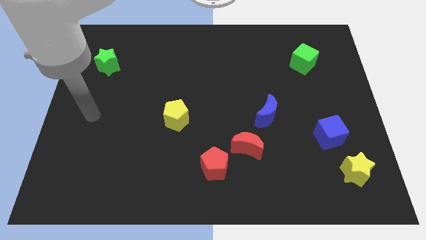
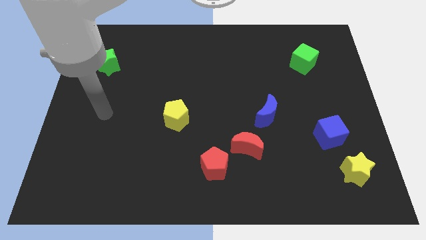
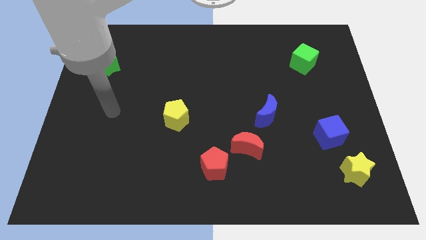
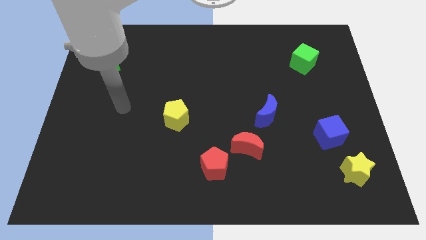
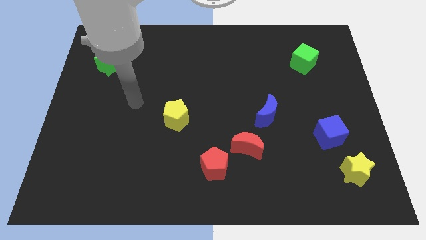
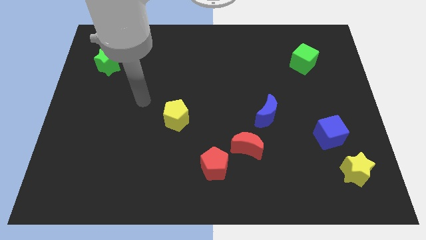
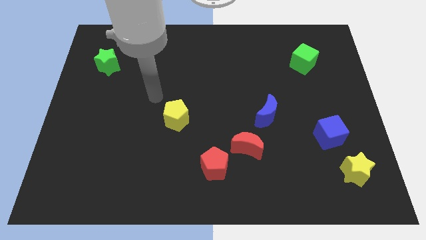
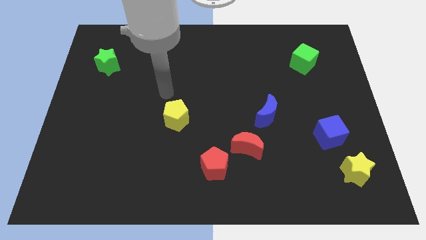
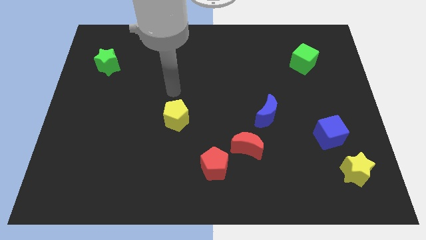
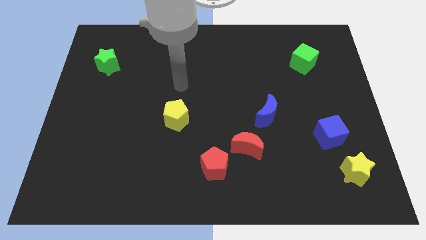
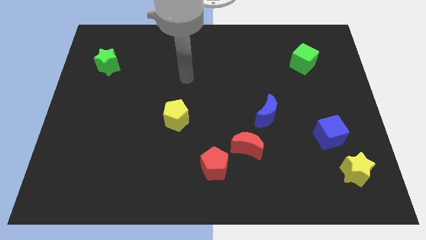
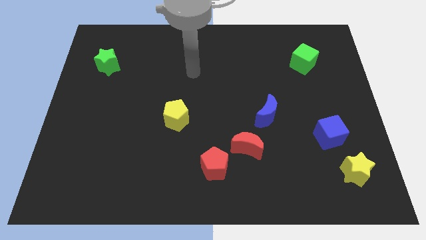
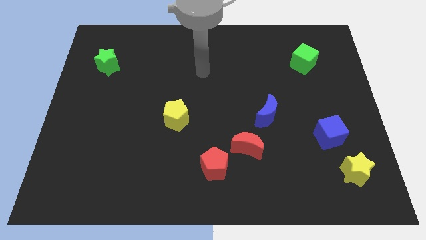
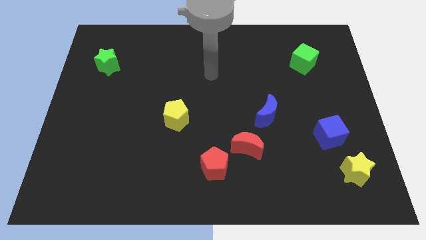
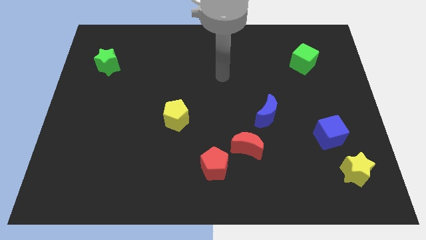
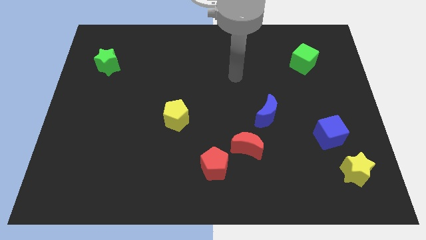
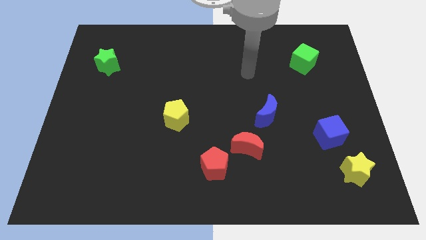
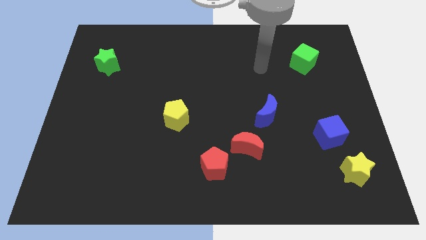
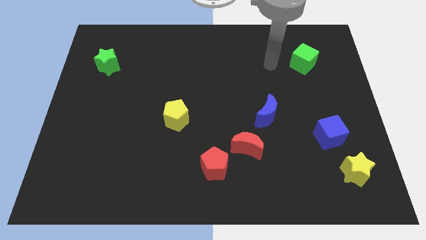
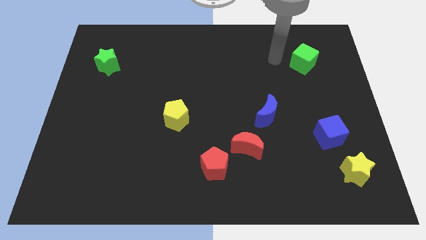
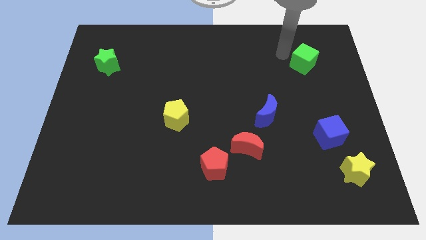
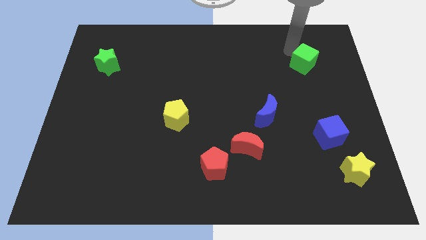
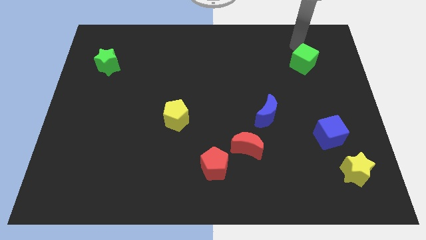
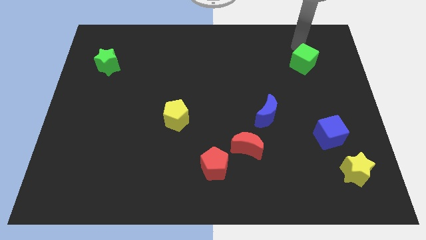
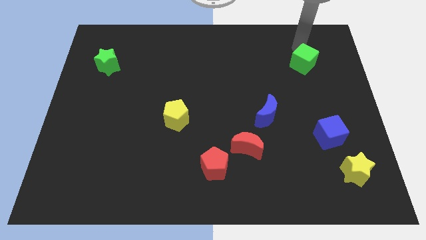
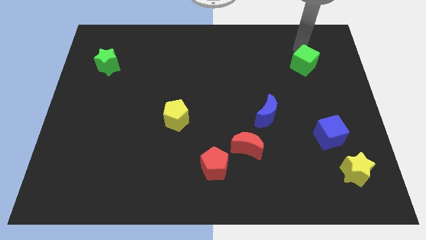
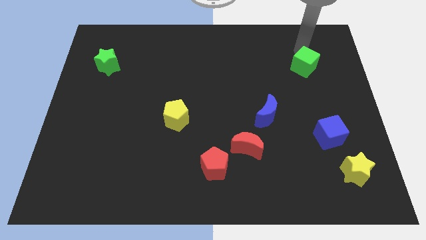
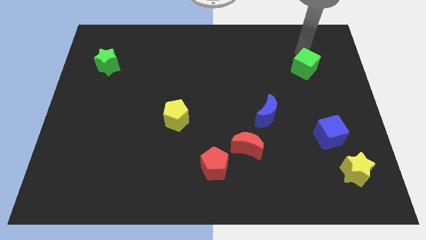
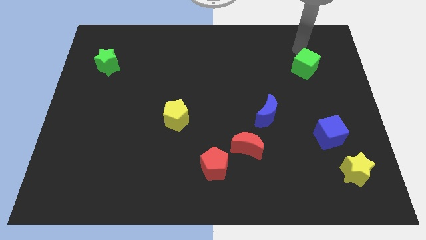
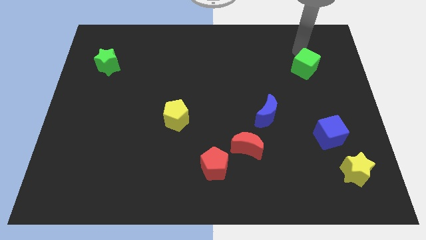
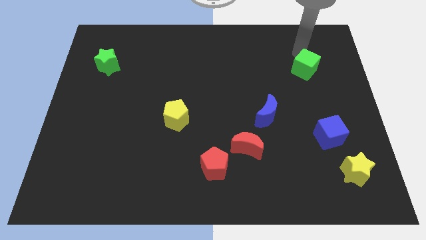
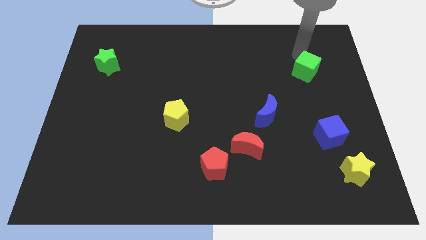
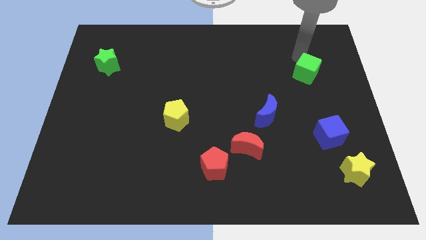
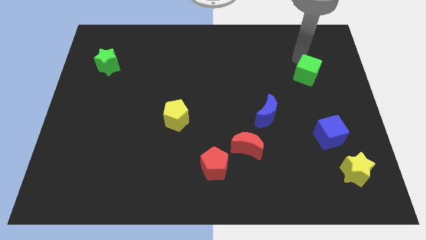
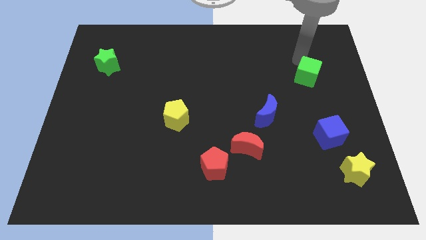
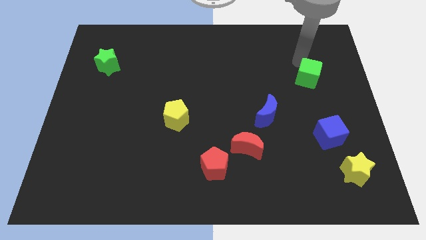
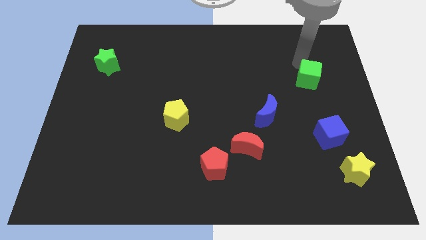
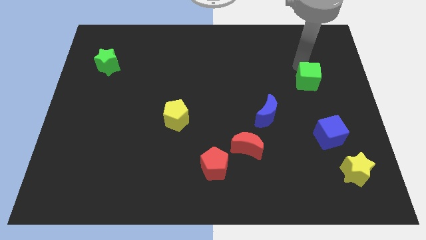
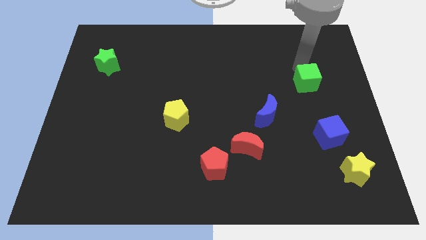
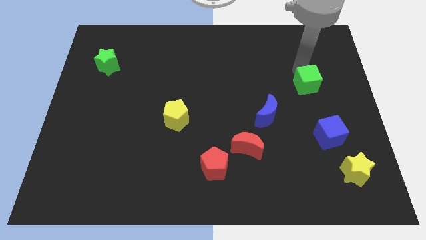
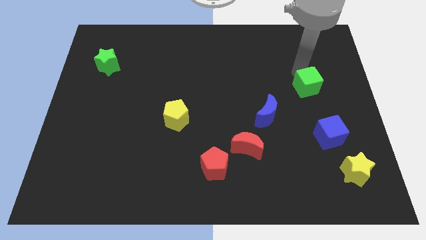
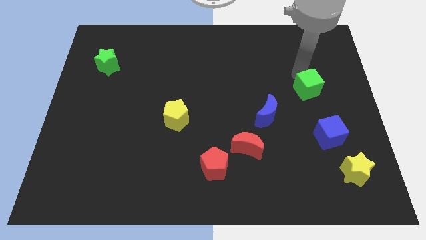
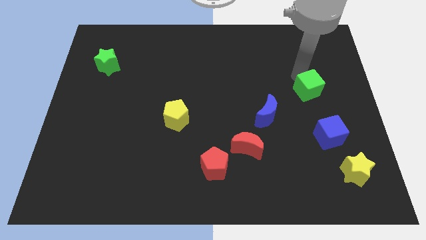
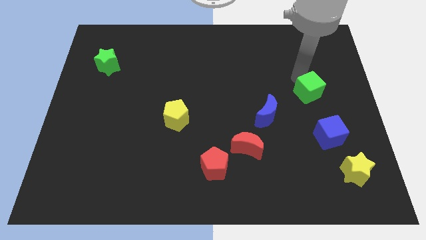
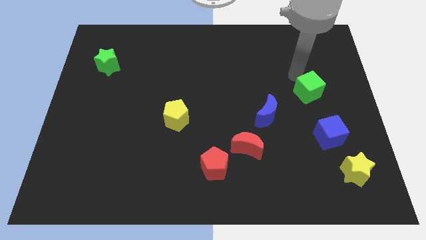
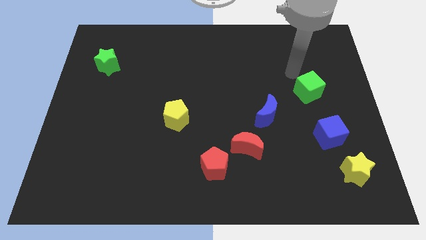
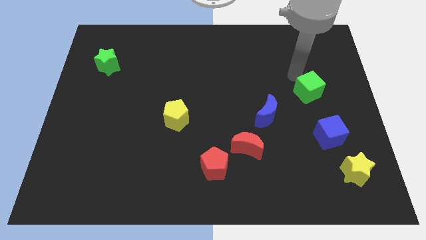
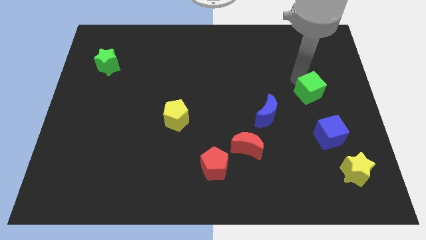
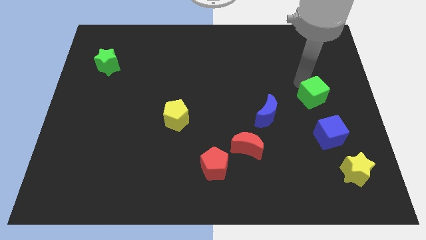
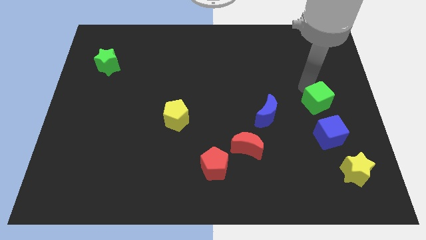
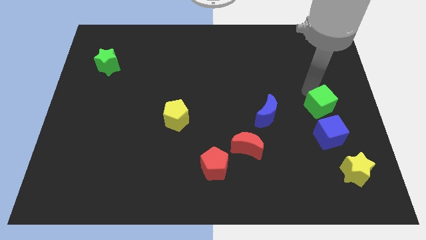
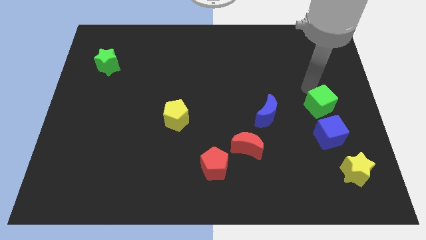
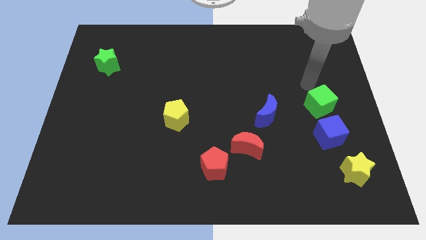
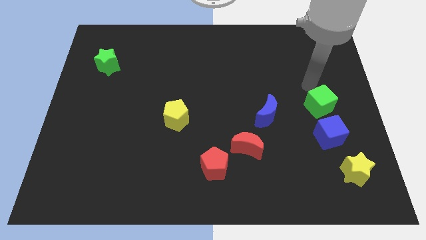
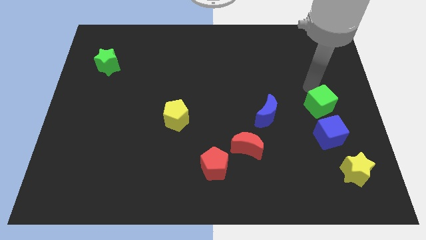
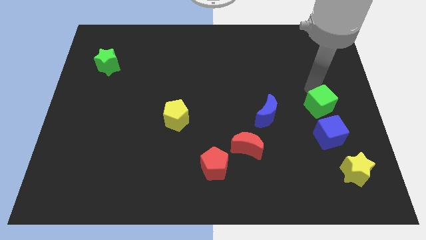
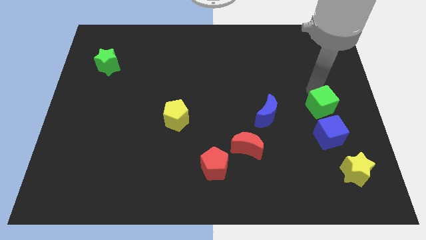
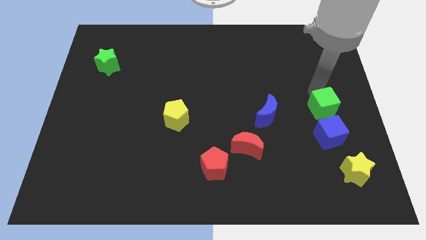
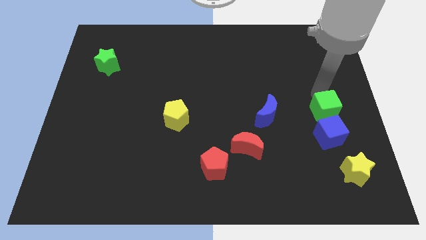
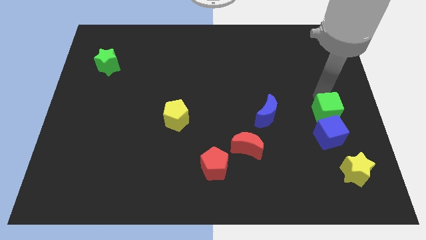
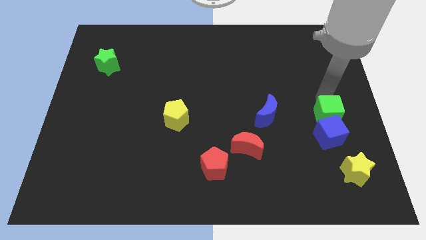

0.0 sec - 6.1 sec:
slide the green cube towards the blue cube

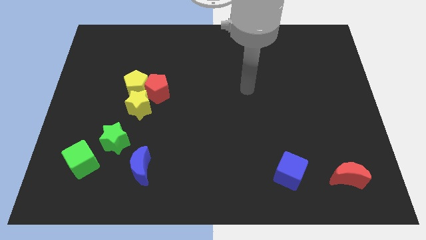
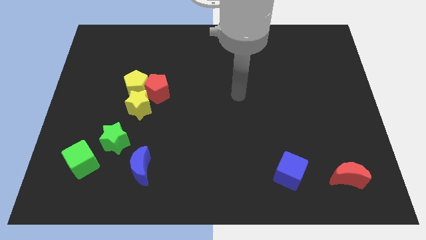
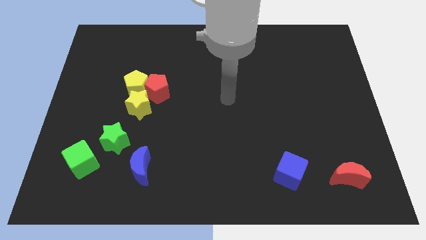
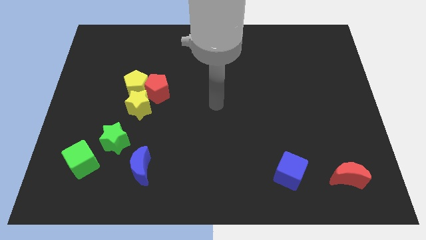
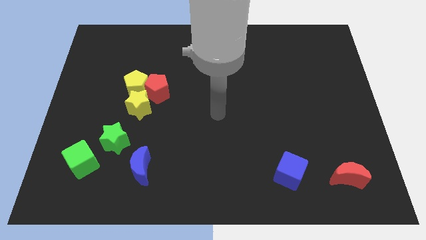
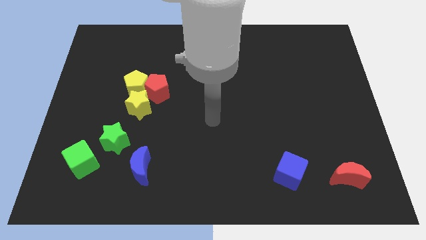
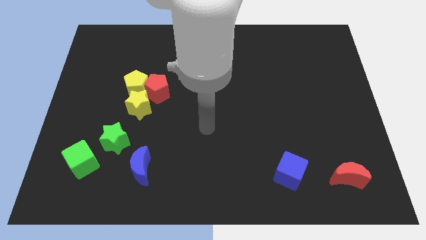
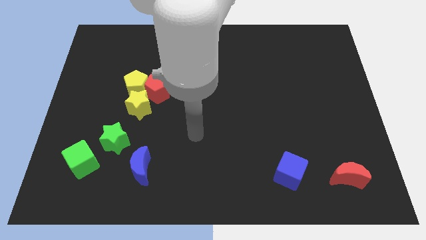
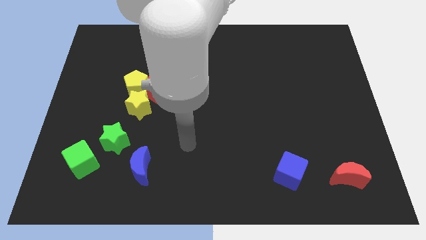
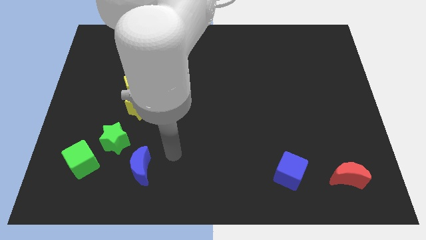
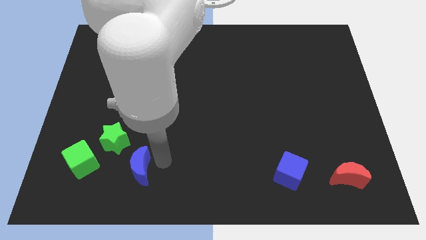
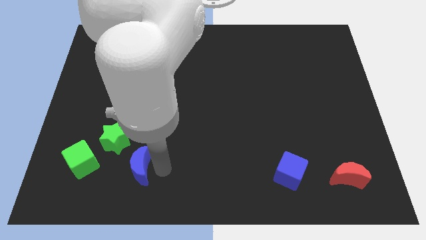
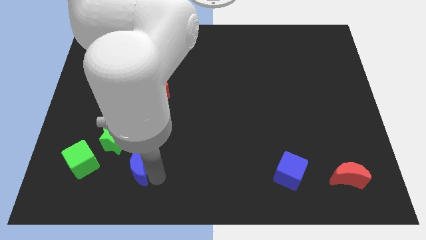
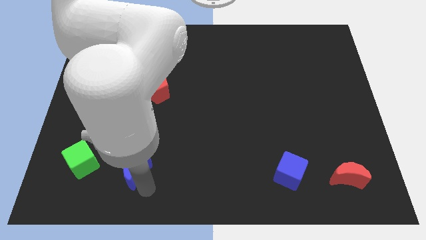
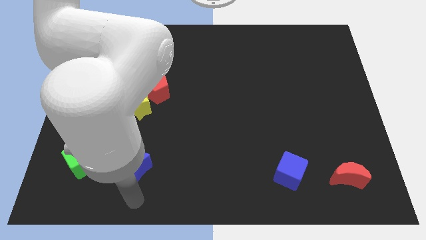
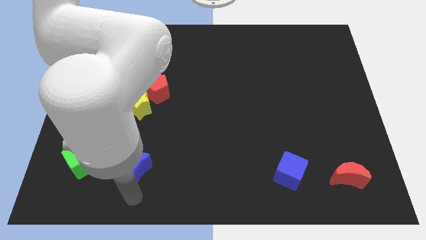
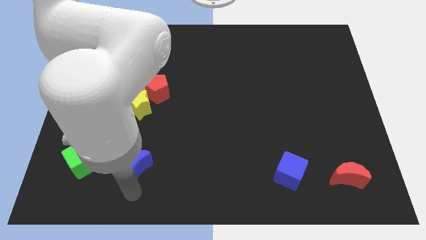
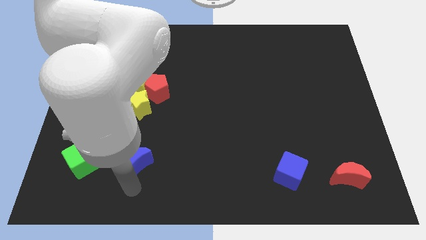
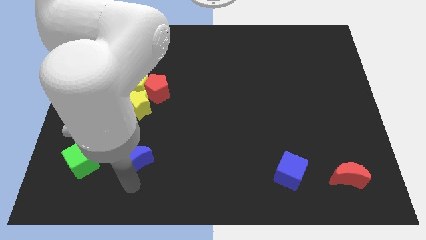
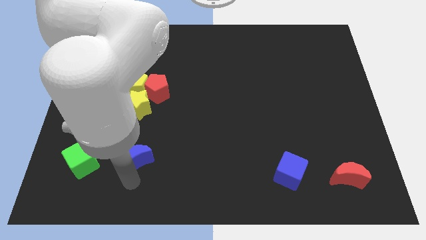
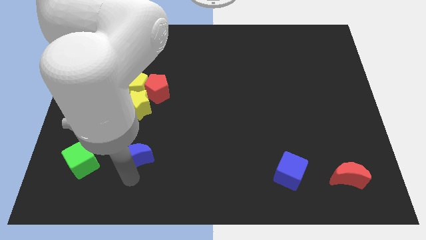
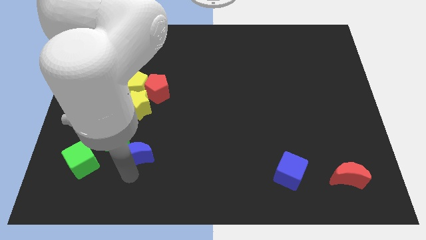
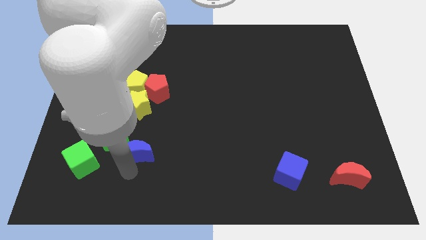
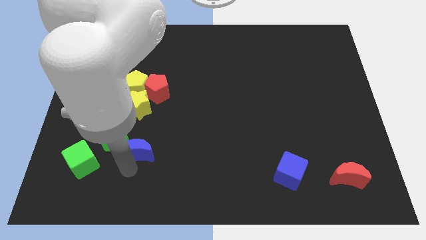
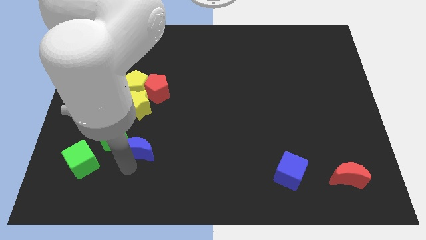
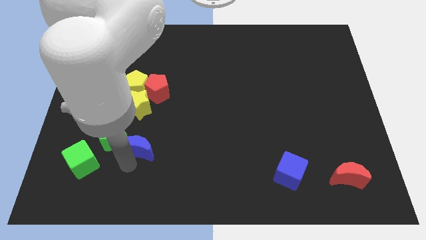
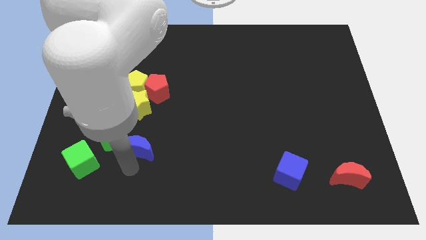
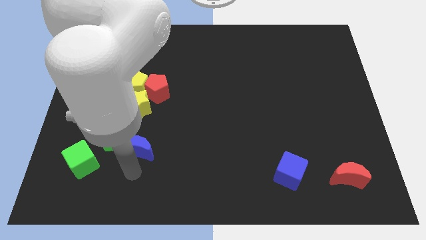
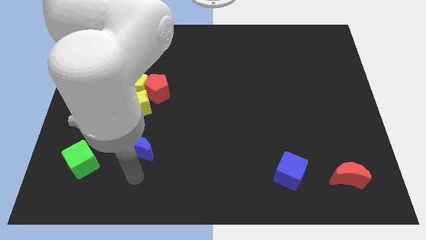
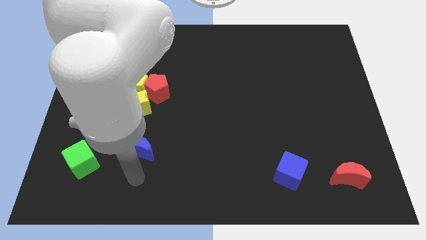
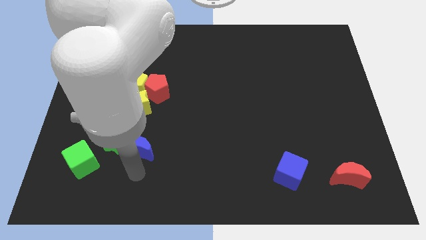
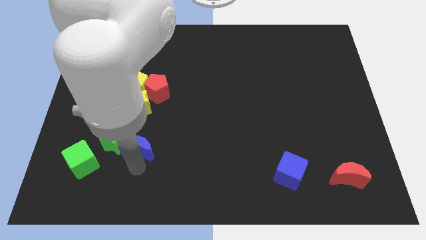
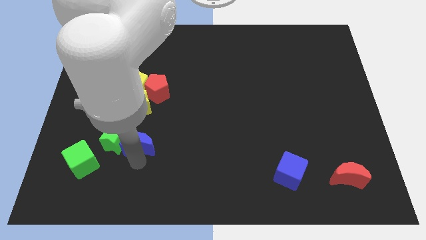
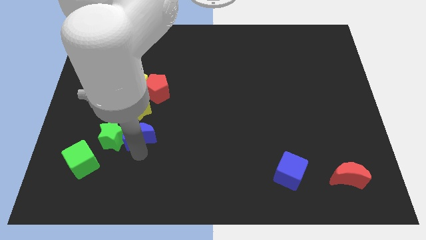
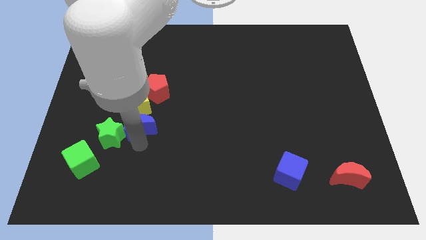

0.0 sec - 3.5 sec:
slide the blue moon next to the yellow star
